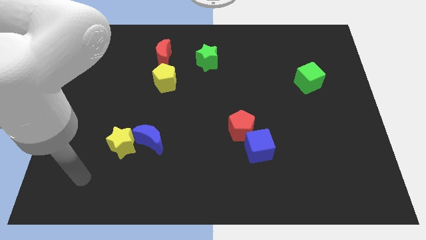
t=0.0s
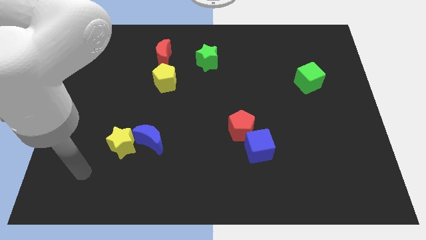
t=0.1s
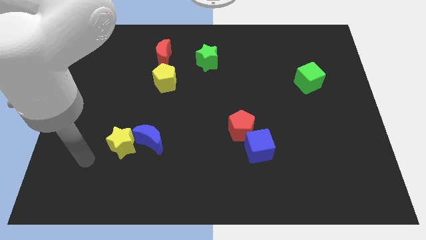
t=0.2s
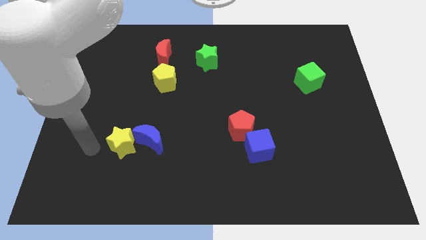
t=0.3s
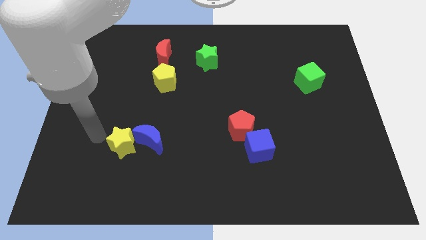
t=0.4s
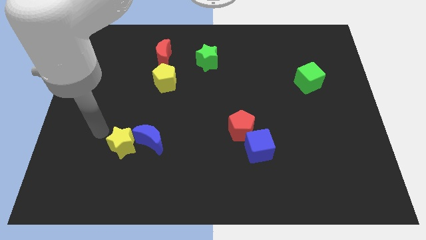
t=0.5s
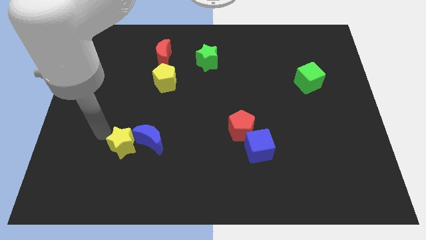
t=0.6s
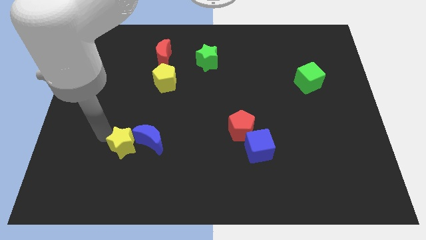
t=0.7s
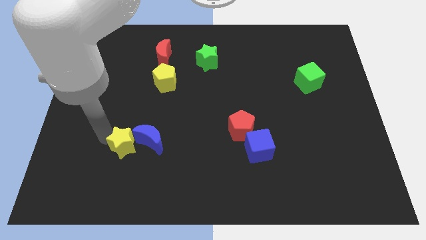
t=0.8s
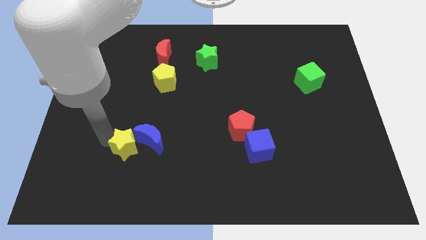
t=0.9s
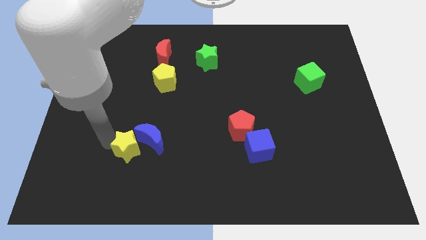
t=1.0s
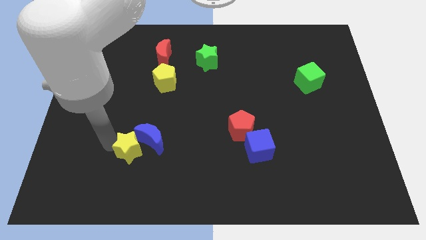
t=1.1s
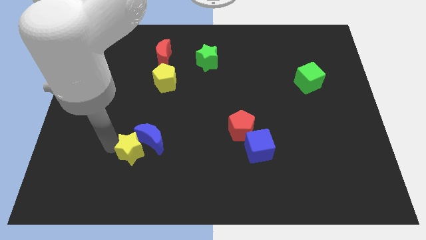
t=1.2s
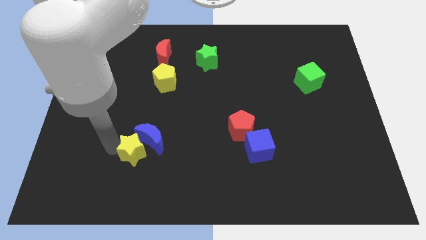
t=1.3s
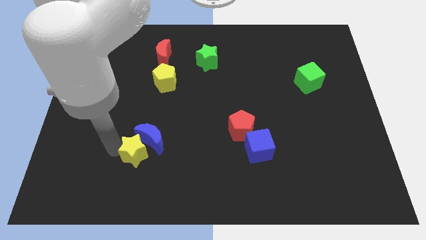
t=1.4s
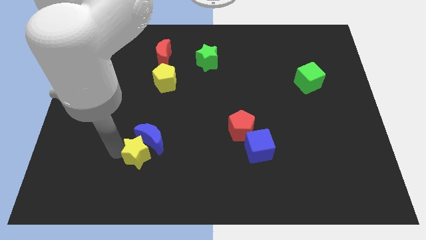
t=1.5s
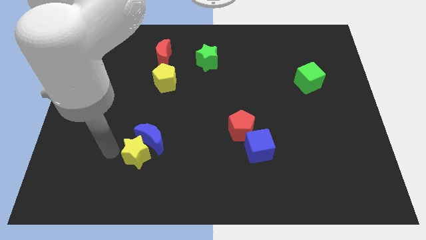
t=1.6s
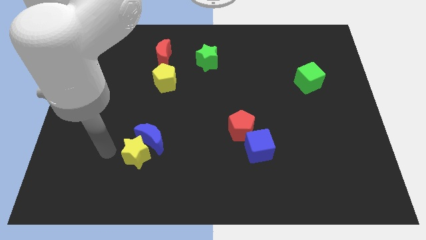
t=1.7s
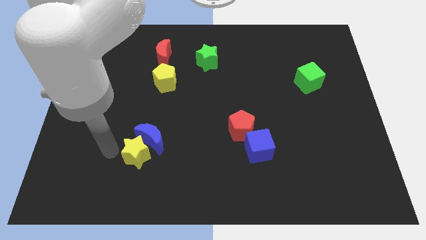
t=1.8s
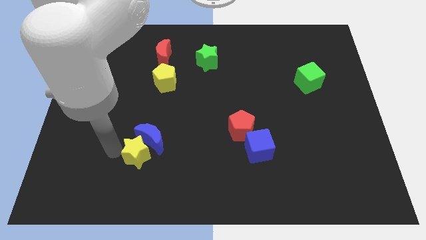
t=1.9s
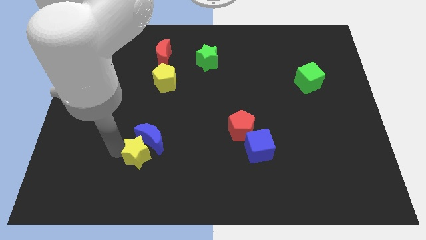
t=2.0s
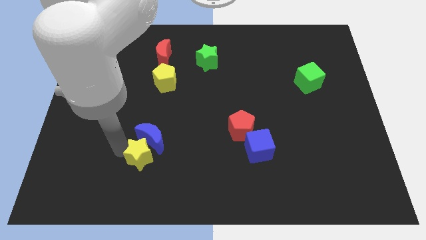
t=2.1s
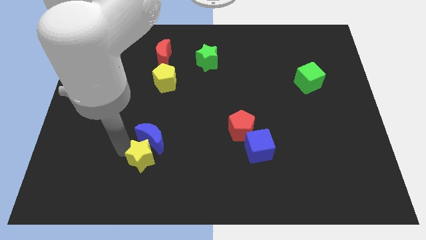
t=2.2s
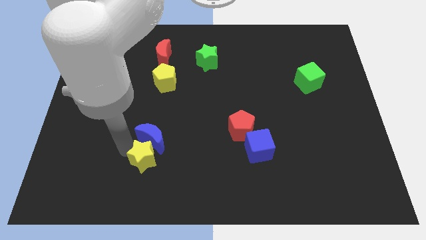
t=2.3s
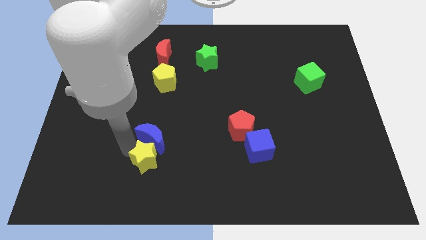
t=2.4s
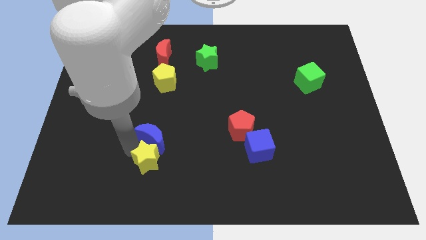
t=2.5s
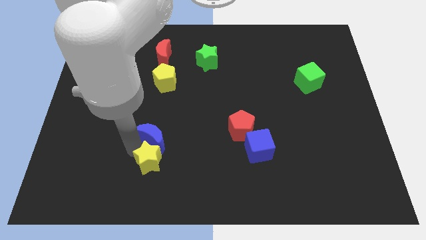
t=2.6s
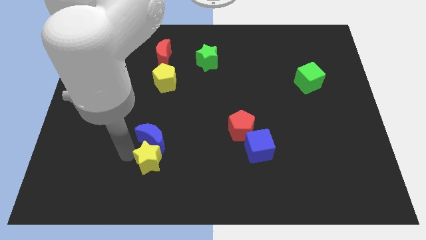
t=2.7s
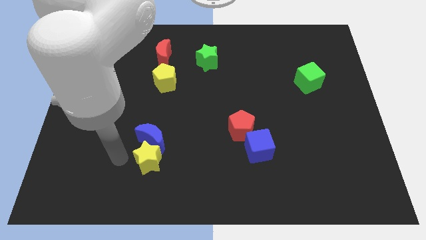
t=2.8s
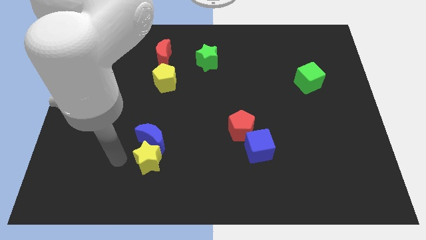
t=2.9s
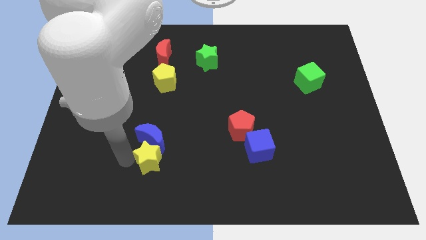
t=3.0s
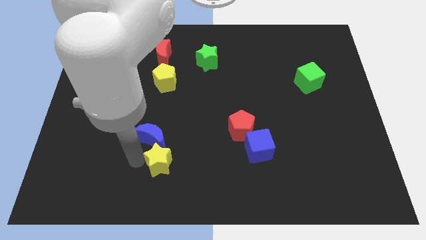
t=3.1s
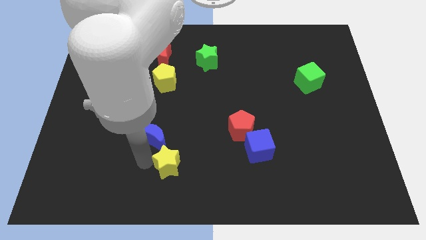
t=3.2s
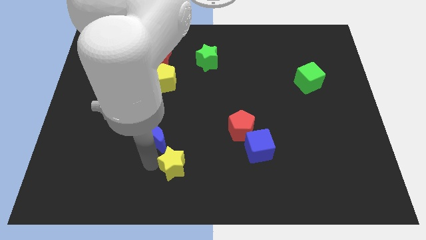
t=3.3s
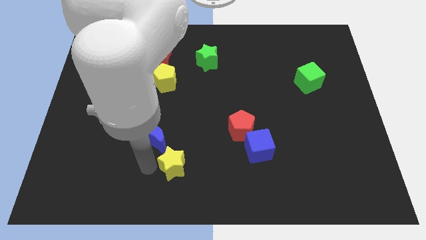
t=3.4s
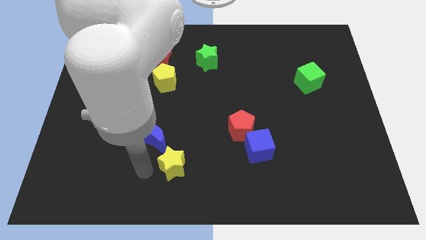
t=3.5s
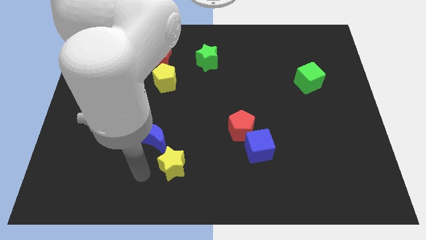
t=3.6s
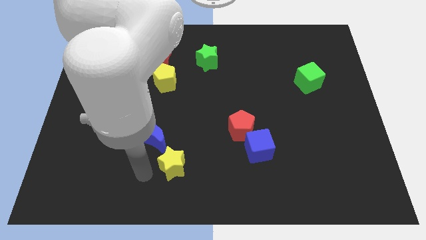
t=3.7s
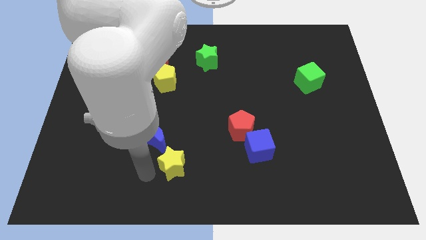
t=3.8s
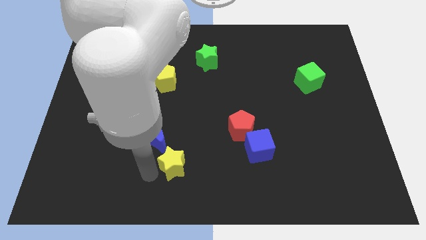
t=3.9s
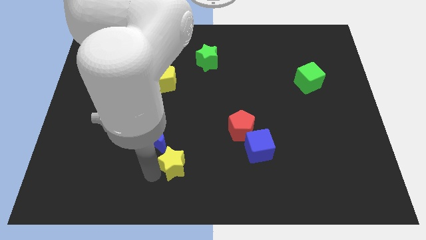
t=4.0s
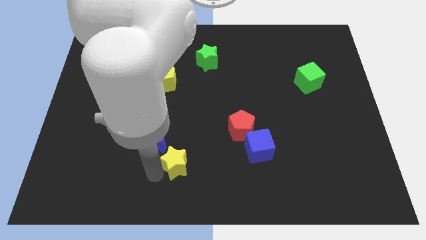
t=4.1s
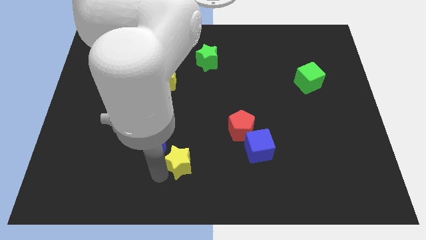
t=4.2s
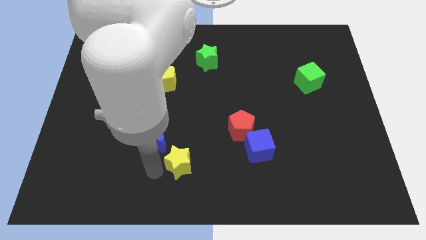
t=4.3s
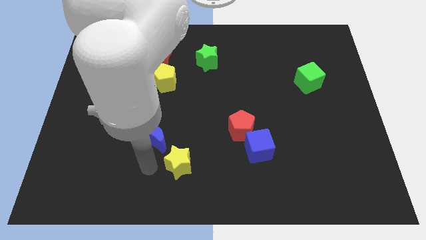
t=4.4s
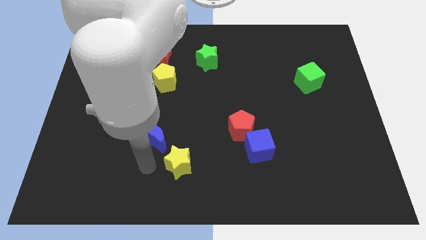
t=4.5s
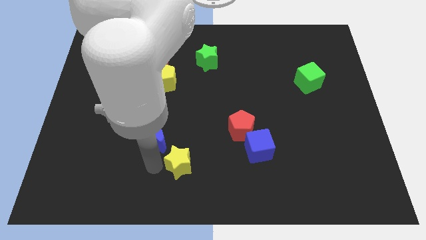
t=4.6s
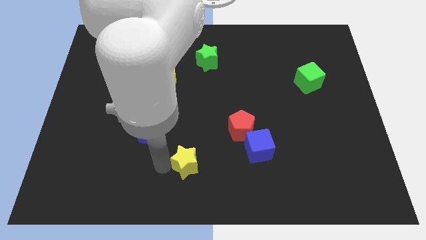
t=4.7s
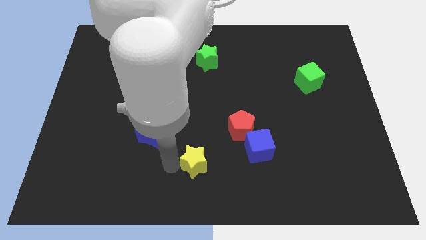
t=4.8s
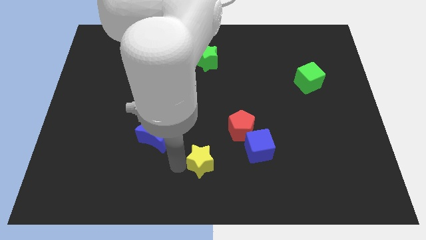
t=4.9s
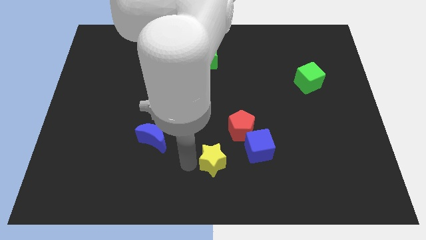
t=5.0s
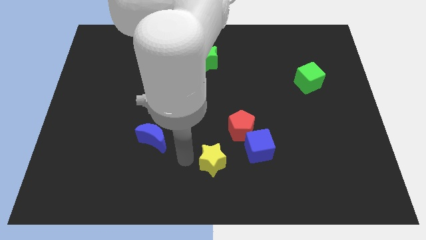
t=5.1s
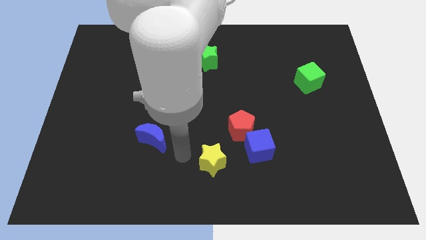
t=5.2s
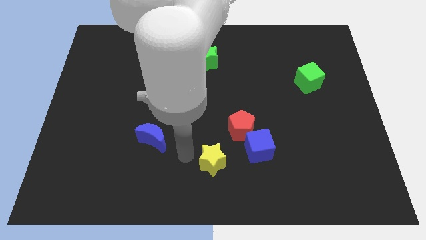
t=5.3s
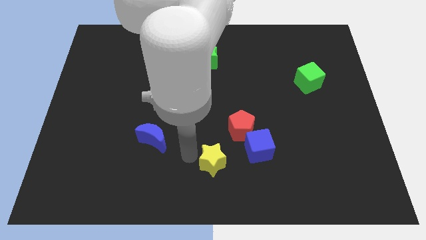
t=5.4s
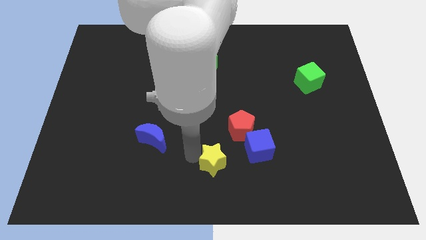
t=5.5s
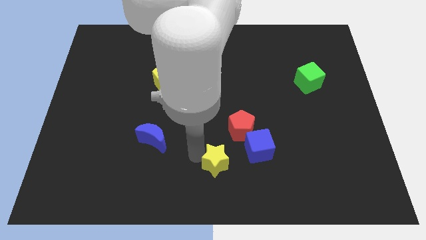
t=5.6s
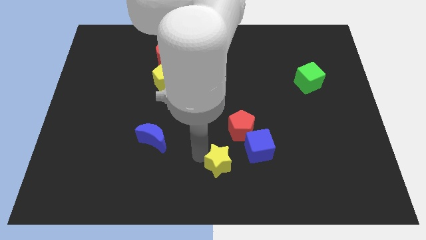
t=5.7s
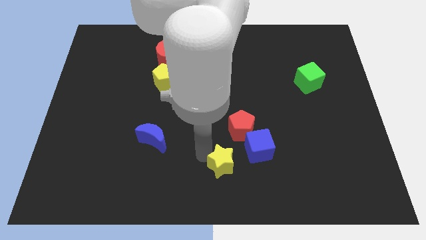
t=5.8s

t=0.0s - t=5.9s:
slide the yellow star to the bottom of the red pentagon

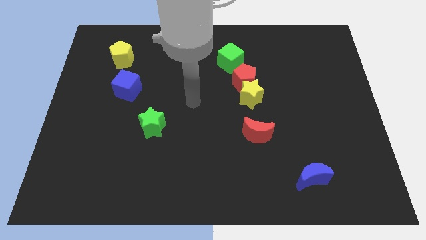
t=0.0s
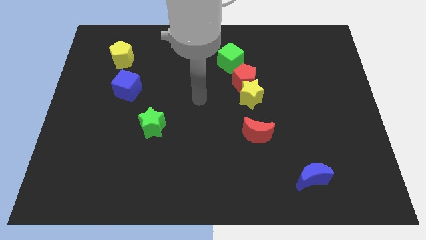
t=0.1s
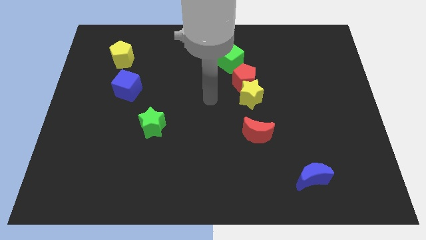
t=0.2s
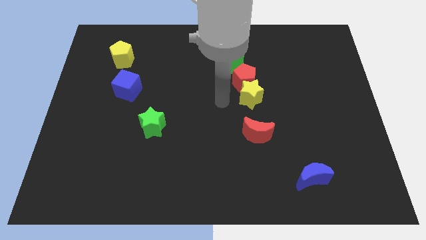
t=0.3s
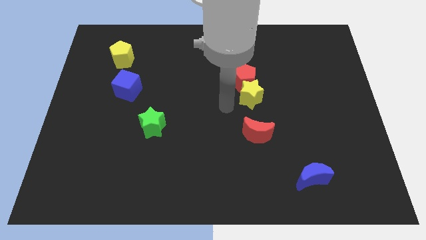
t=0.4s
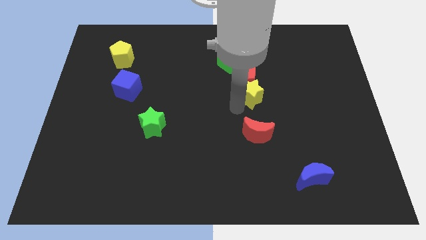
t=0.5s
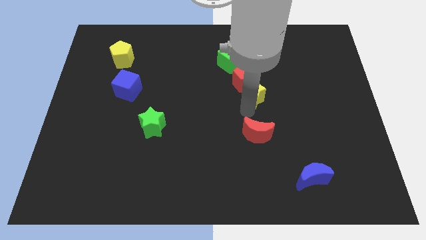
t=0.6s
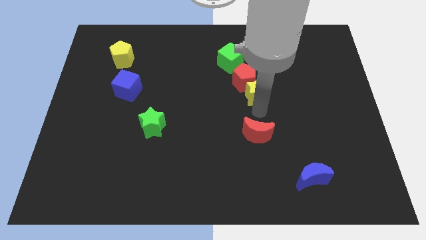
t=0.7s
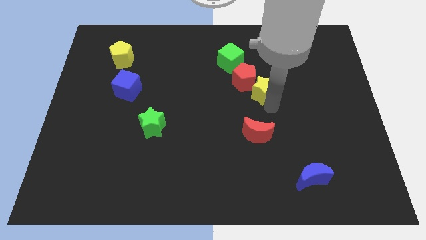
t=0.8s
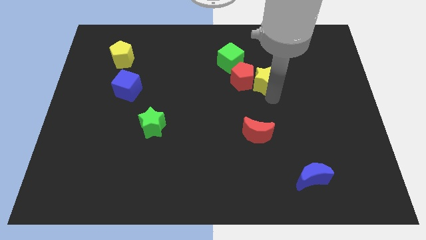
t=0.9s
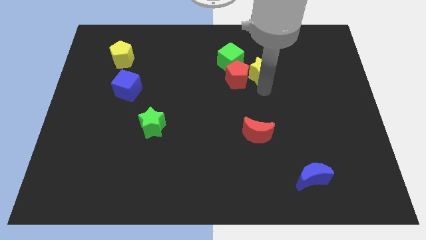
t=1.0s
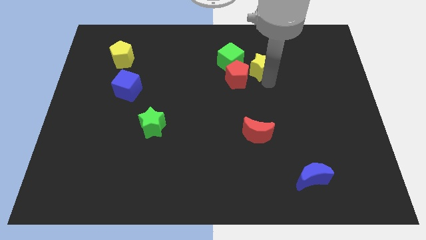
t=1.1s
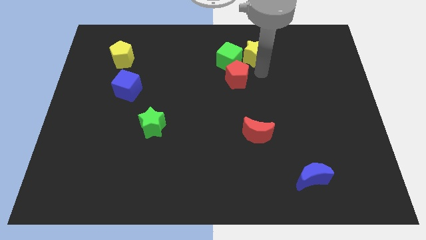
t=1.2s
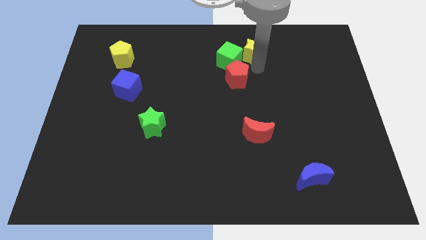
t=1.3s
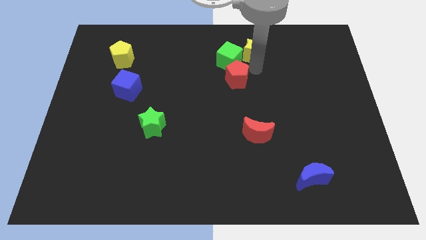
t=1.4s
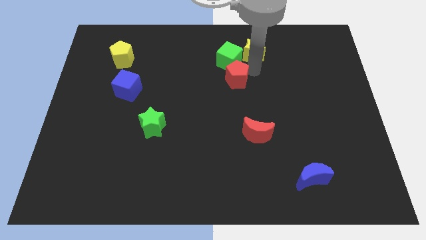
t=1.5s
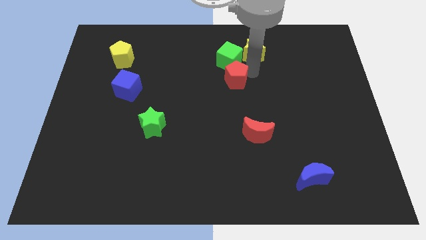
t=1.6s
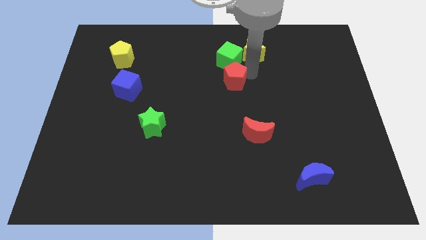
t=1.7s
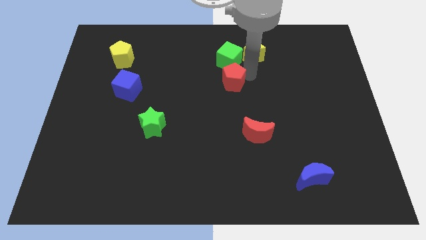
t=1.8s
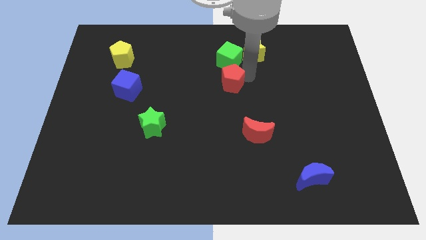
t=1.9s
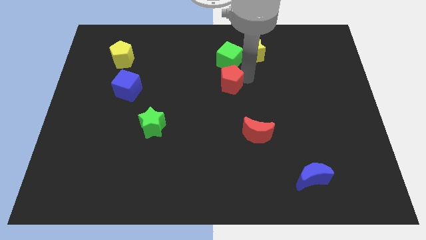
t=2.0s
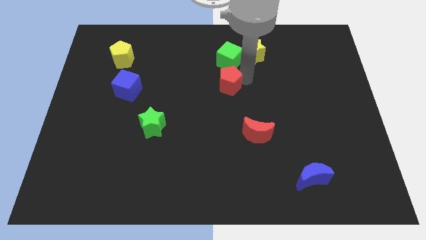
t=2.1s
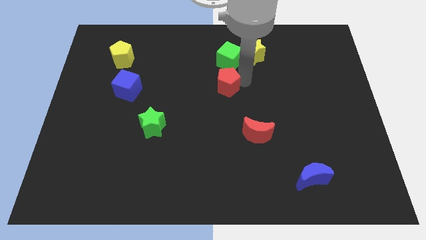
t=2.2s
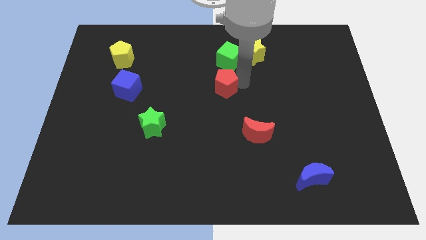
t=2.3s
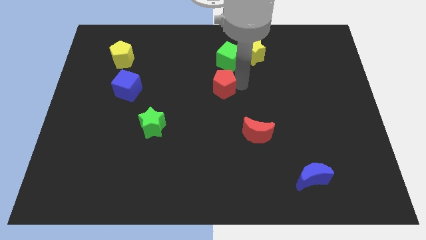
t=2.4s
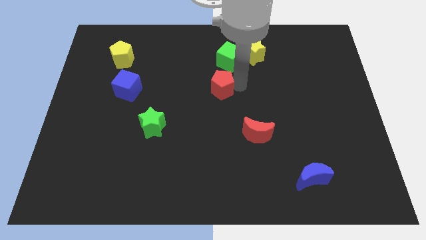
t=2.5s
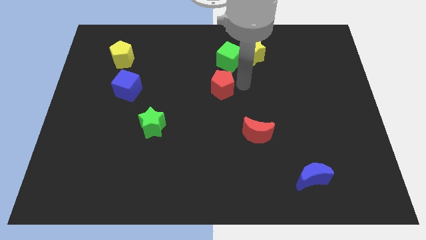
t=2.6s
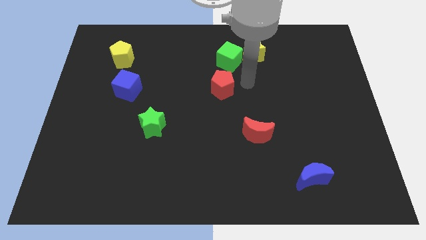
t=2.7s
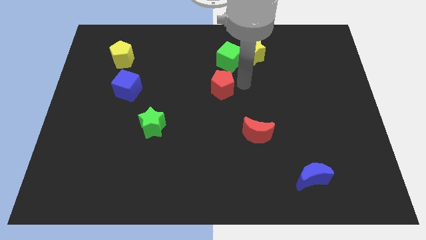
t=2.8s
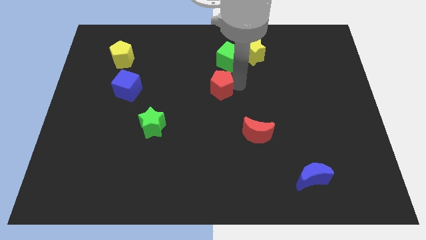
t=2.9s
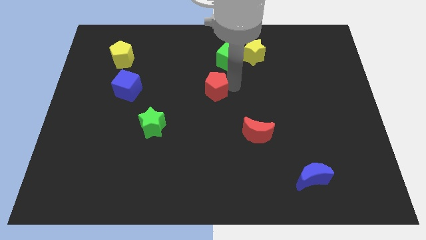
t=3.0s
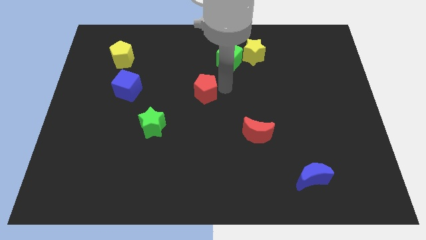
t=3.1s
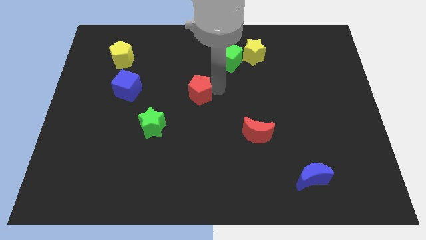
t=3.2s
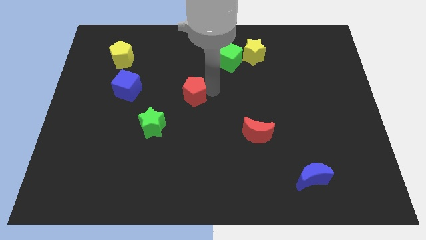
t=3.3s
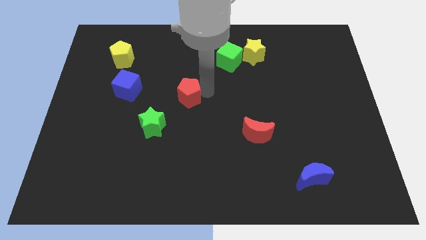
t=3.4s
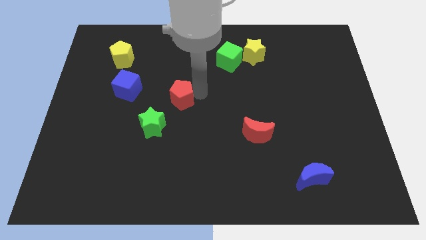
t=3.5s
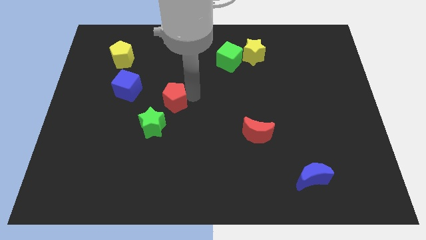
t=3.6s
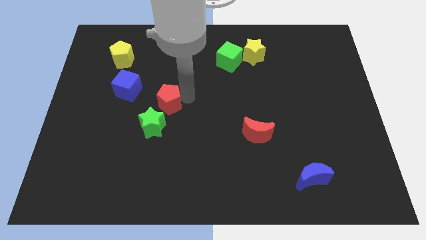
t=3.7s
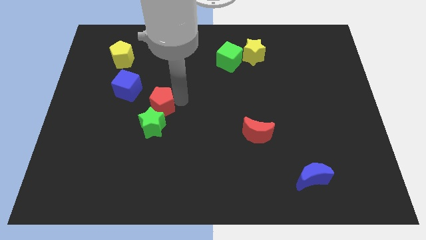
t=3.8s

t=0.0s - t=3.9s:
move the red pentagon to the bottom right side of the blue cube
